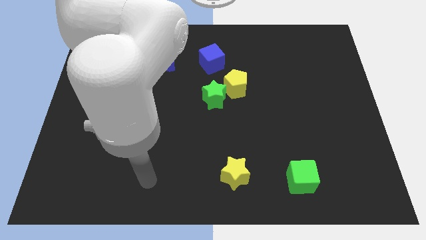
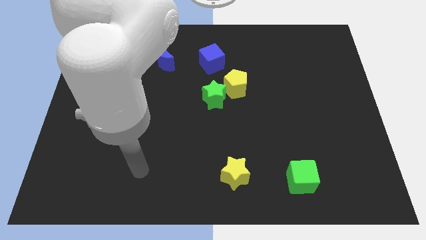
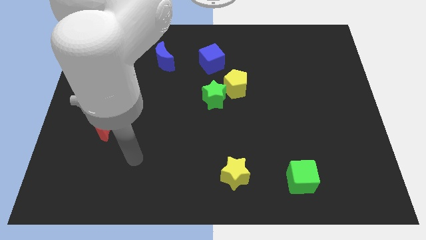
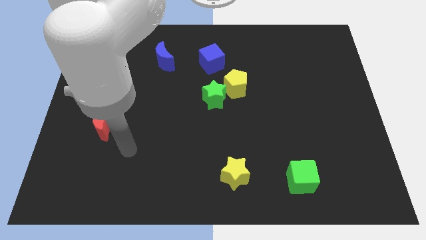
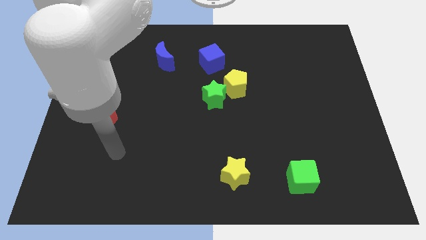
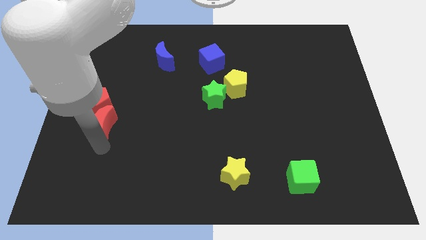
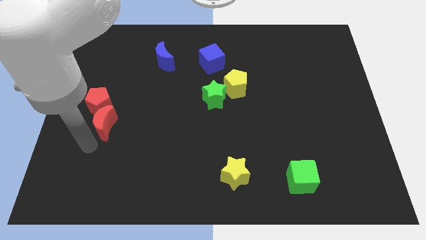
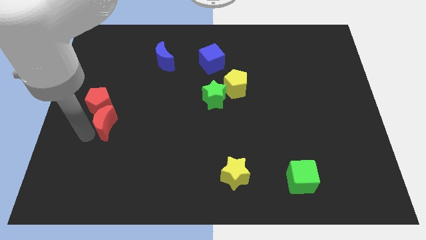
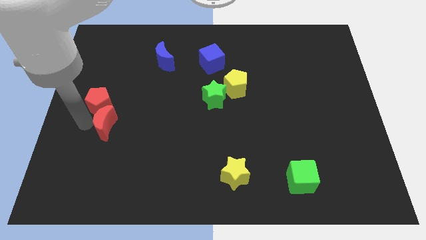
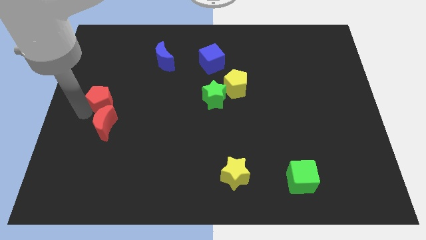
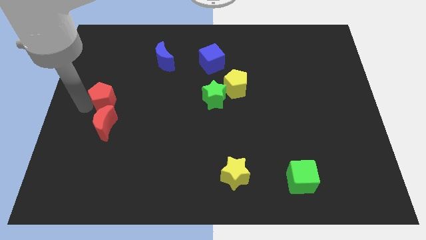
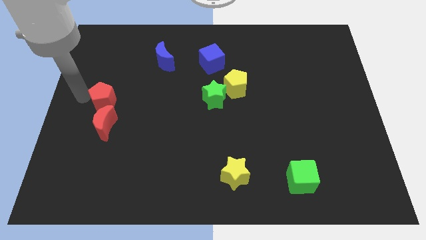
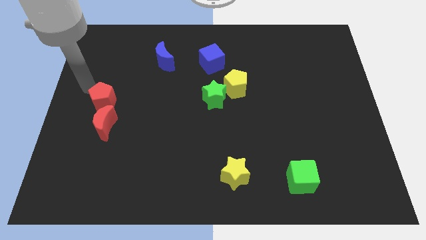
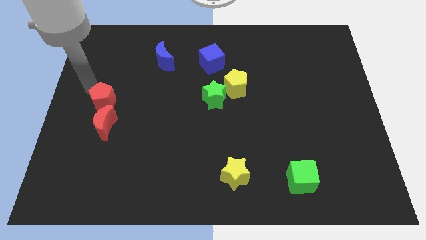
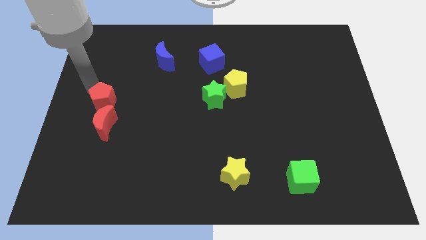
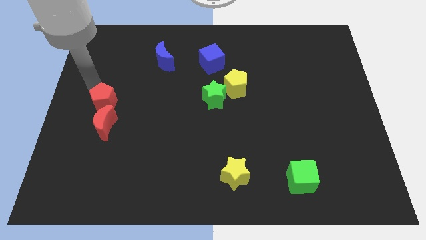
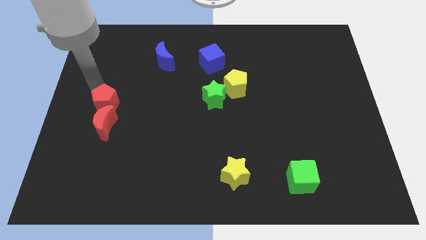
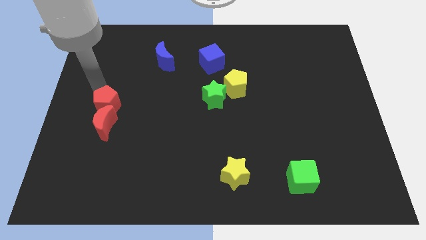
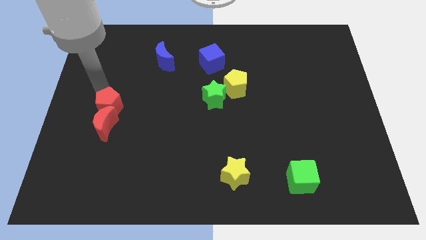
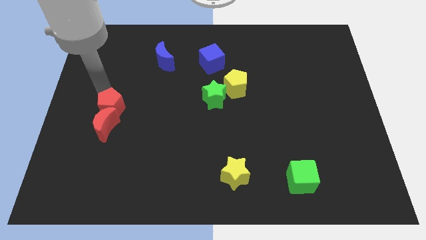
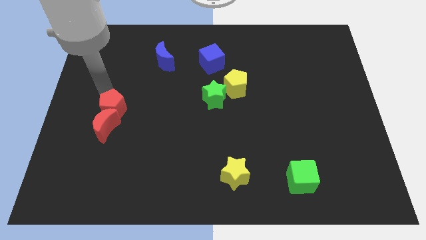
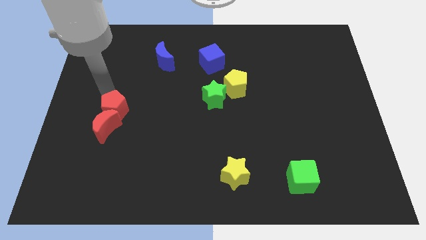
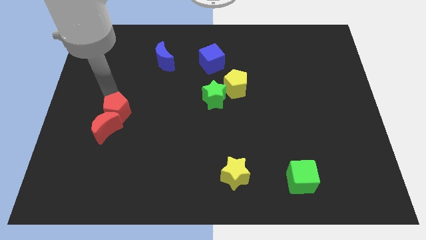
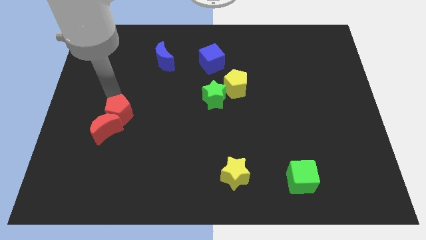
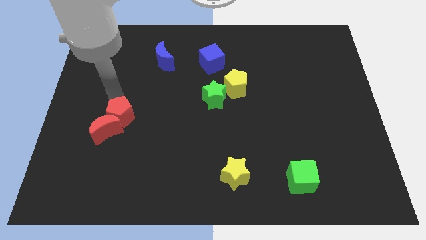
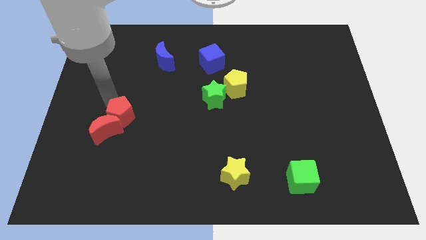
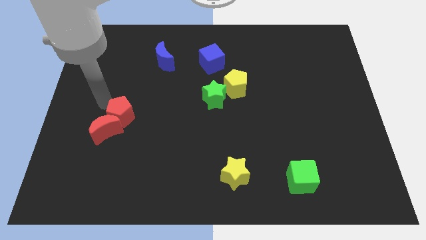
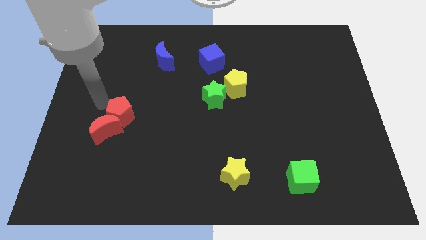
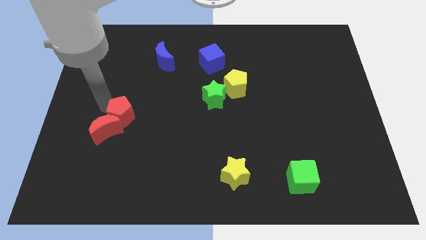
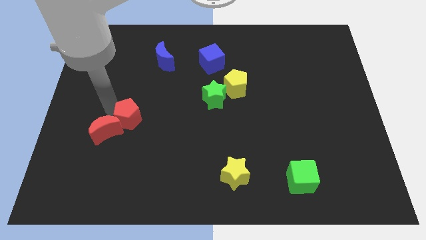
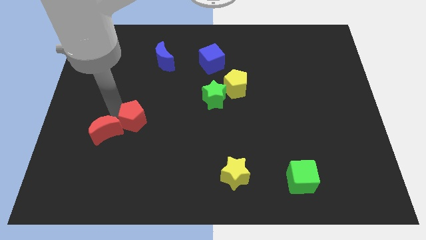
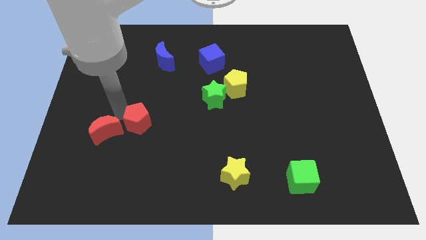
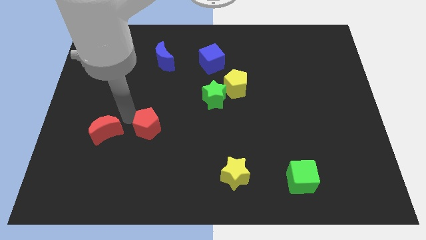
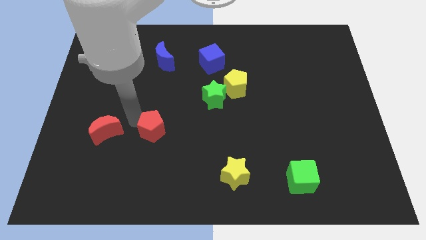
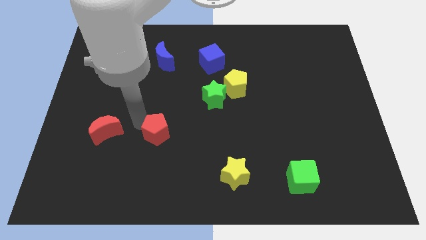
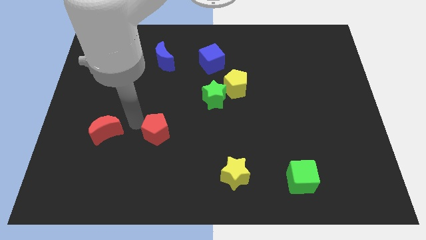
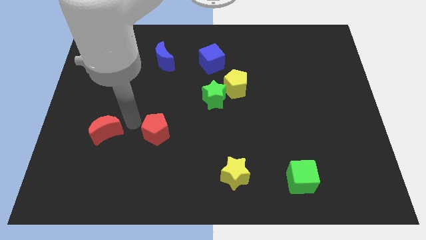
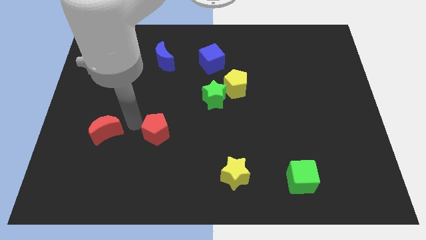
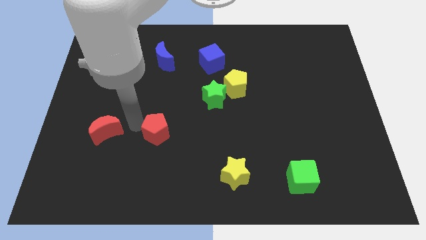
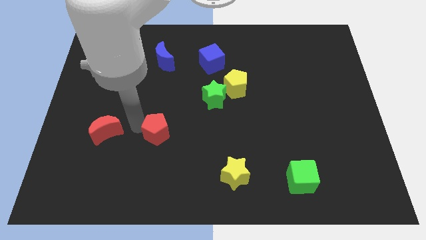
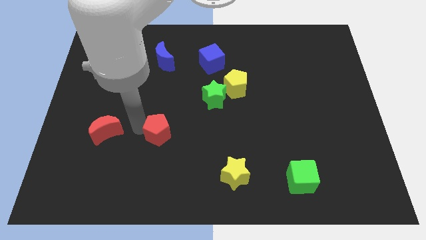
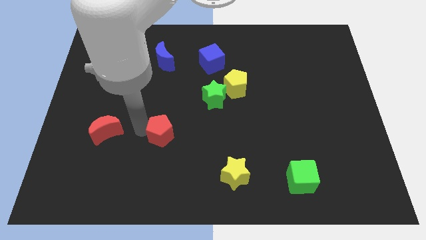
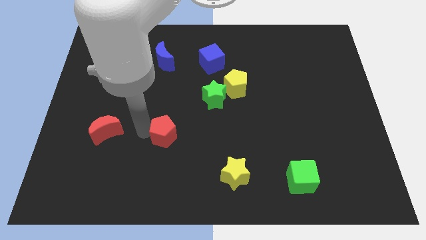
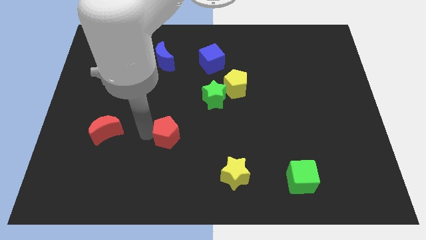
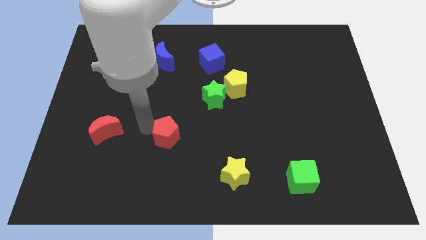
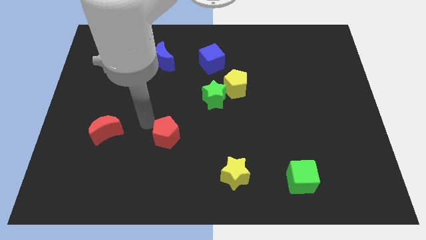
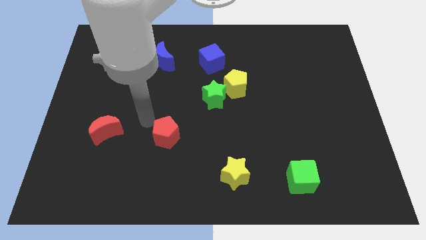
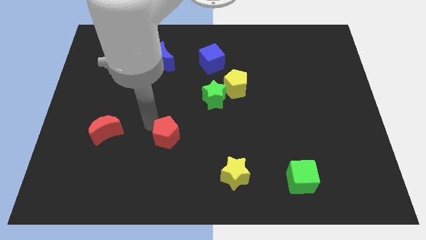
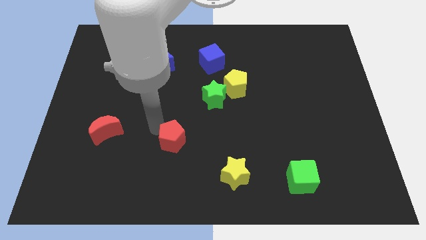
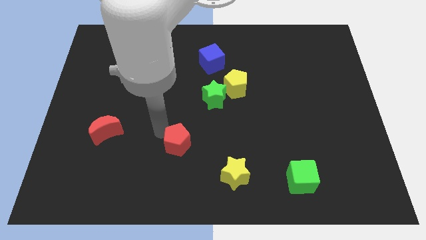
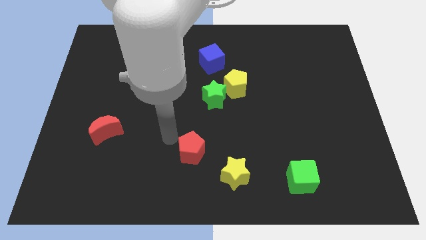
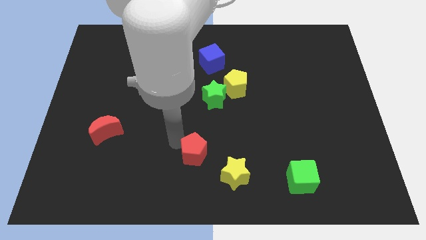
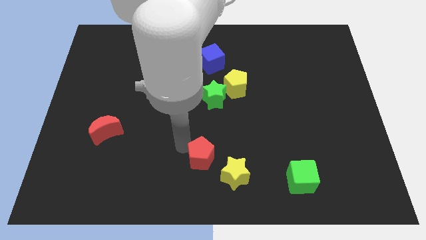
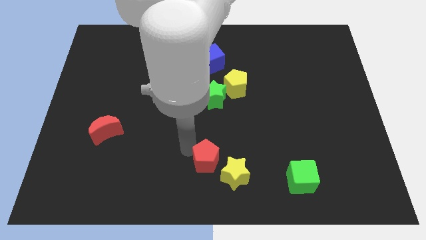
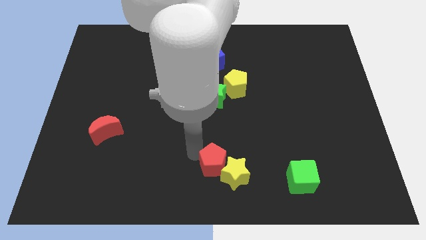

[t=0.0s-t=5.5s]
move the red pentagon towards the yellow star

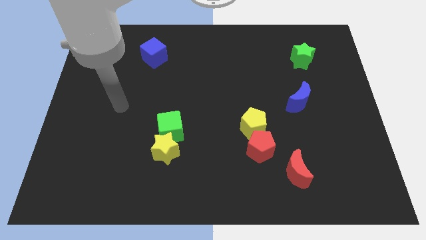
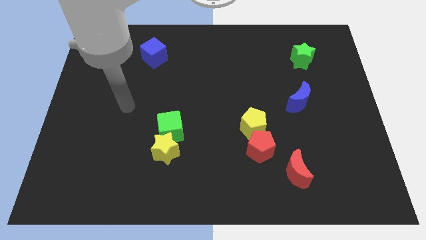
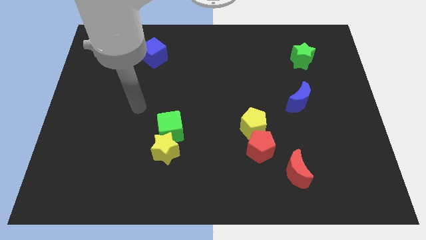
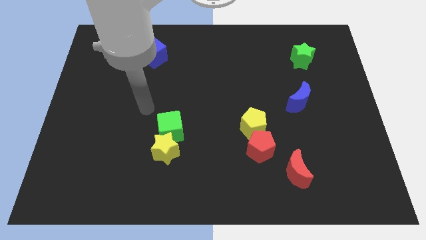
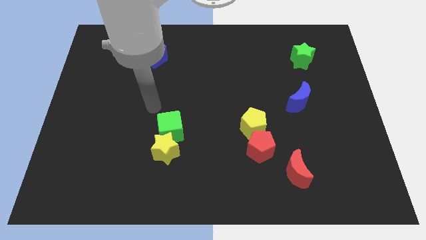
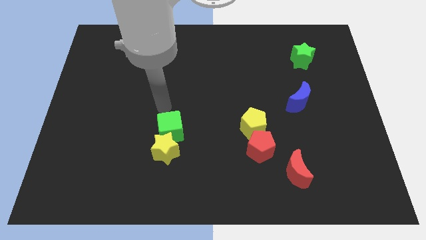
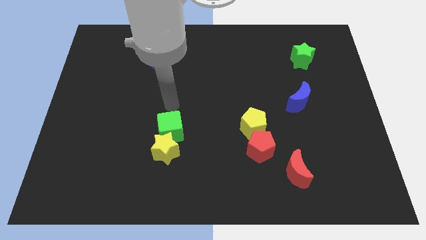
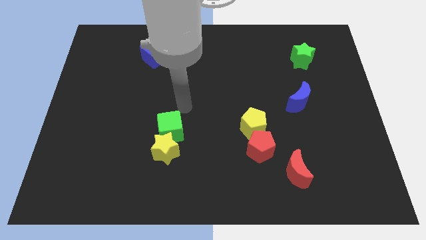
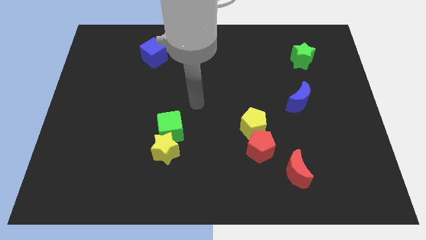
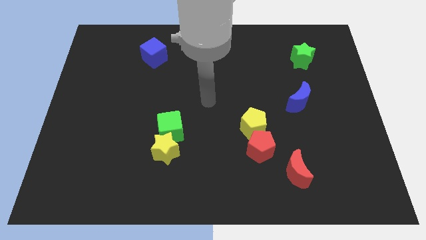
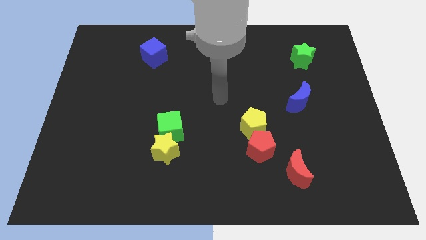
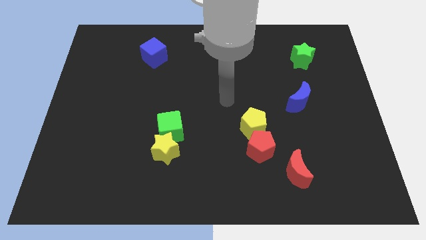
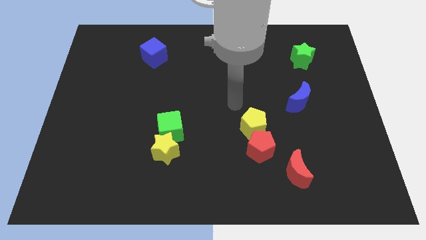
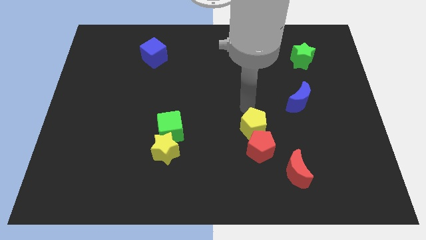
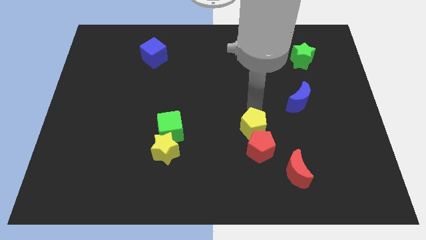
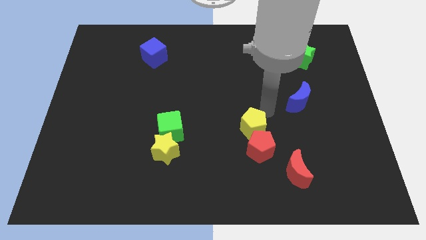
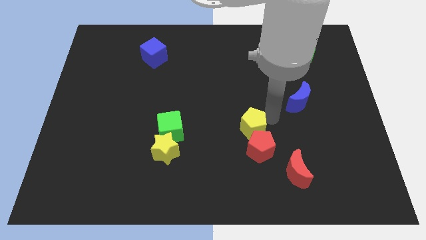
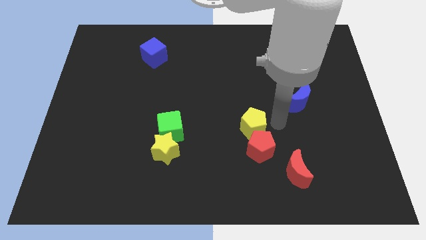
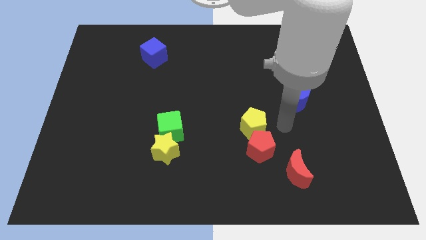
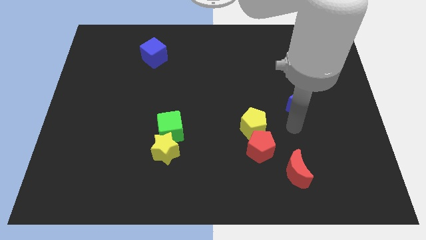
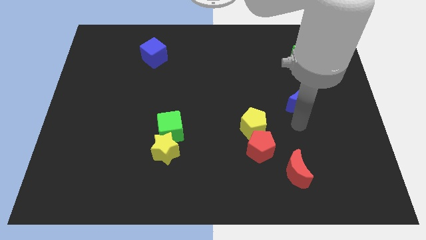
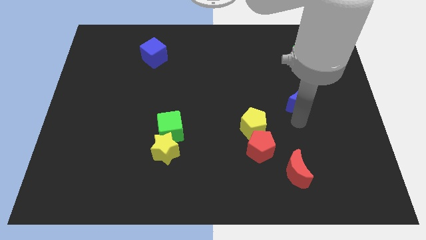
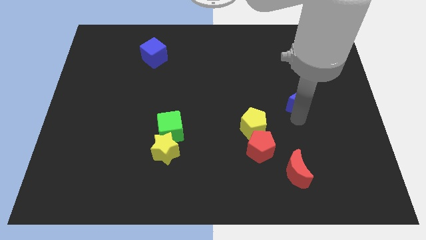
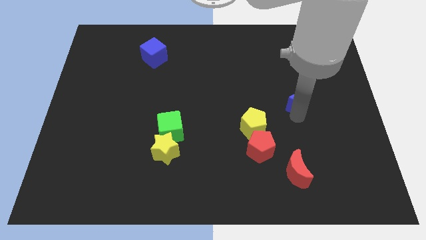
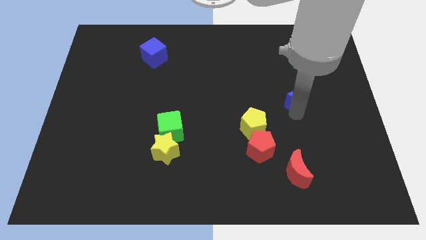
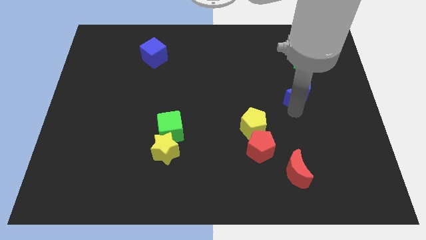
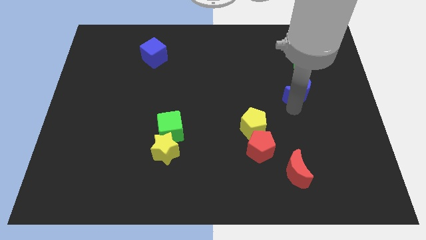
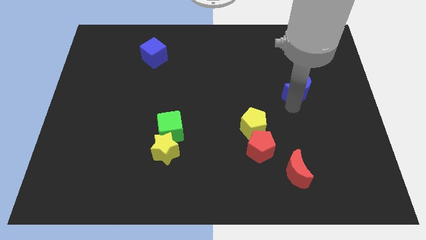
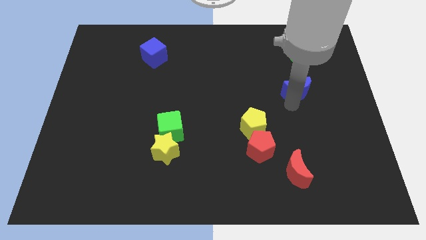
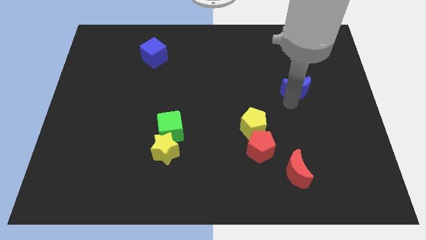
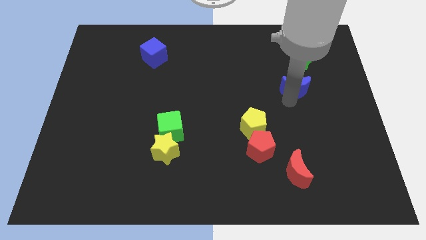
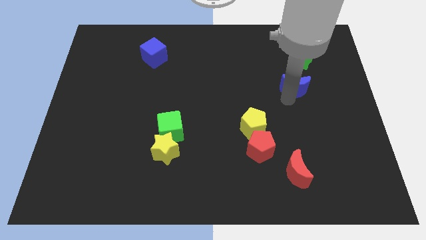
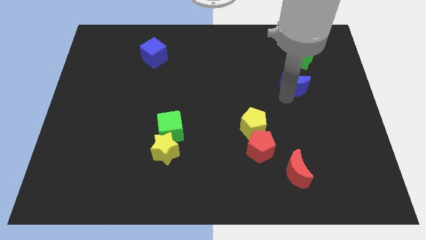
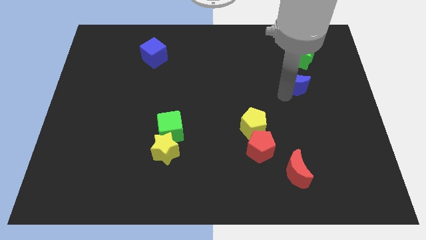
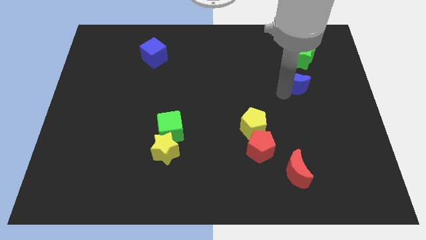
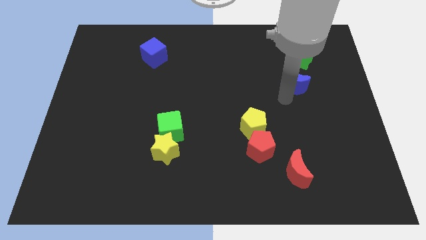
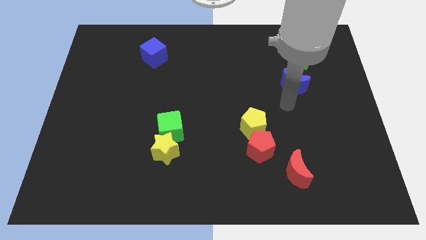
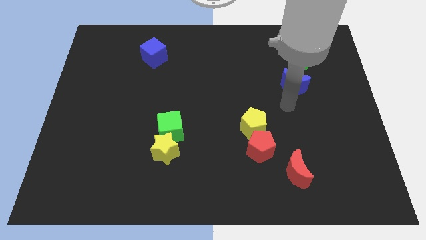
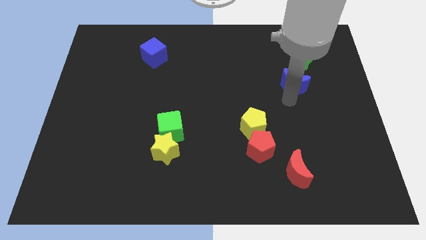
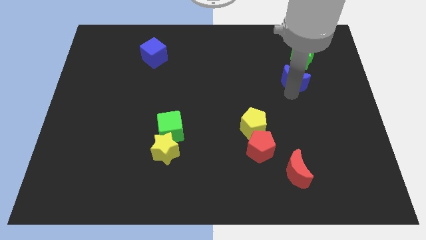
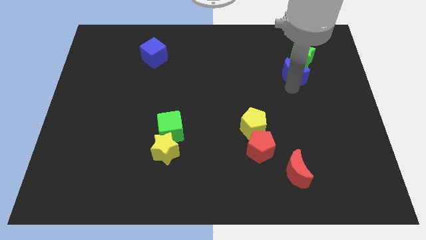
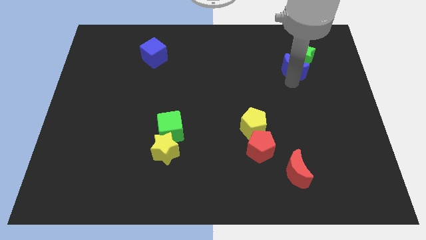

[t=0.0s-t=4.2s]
move the blue moon close to the green star
